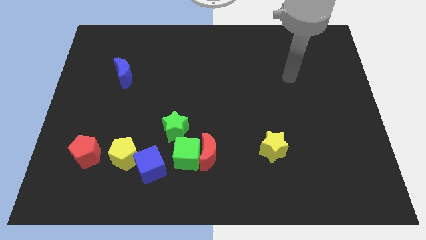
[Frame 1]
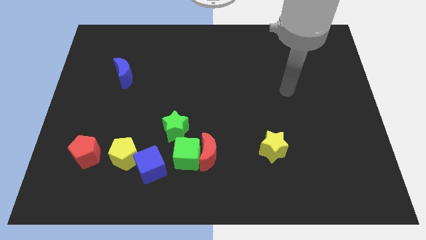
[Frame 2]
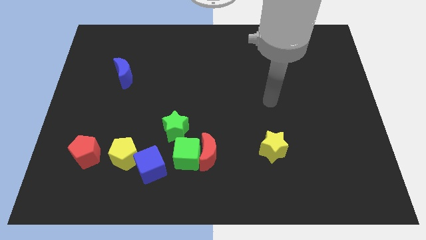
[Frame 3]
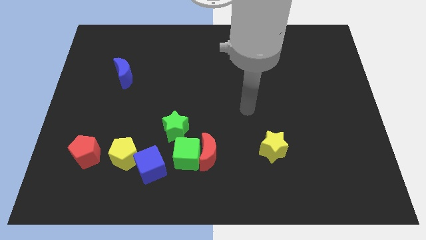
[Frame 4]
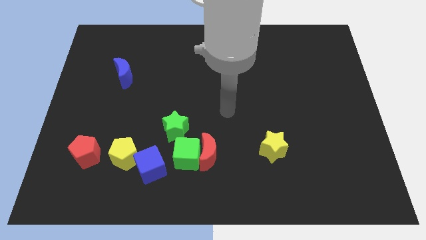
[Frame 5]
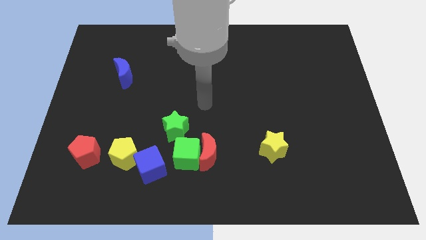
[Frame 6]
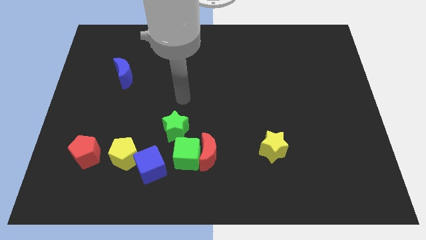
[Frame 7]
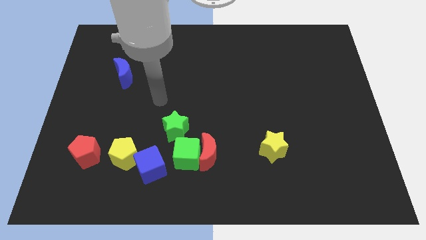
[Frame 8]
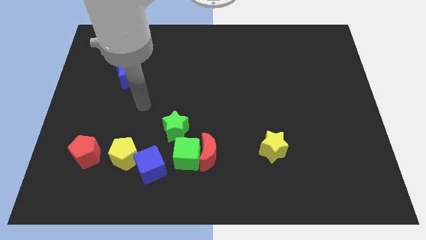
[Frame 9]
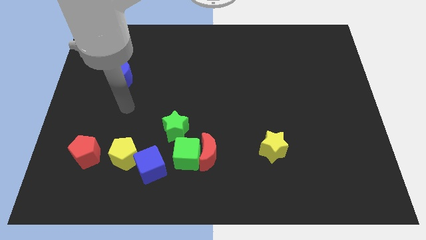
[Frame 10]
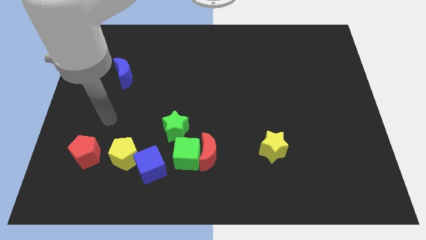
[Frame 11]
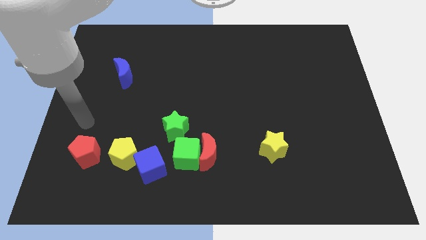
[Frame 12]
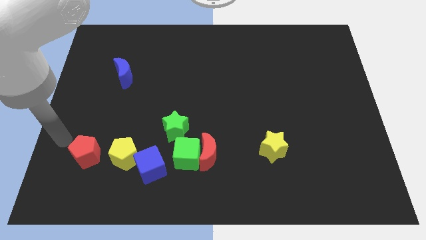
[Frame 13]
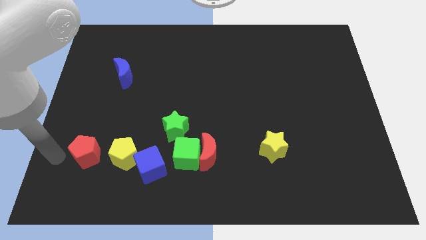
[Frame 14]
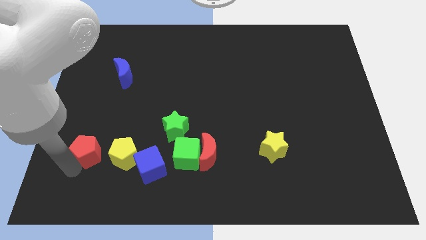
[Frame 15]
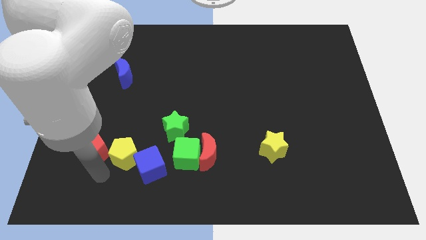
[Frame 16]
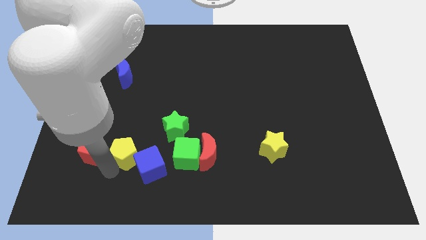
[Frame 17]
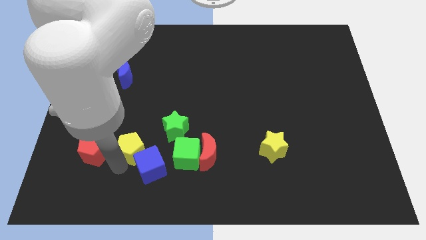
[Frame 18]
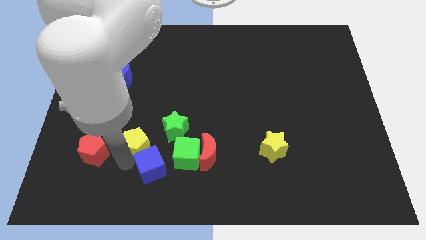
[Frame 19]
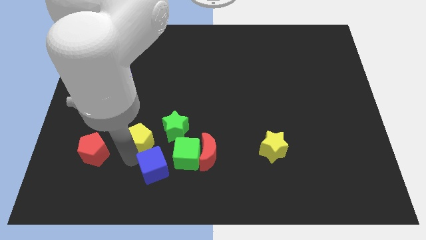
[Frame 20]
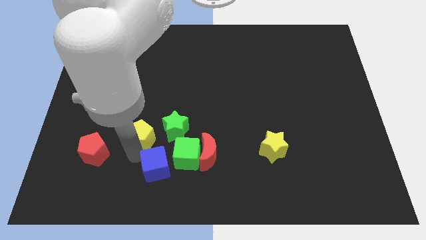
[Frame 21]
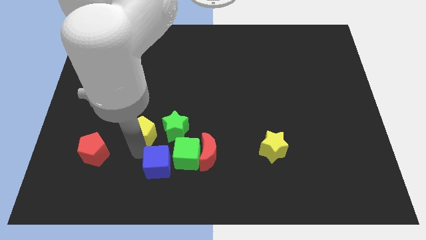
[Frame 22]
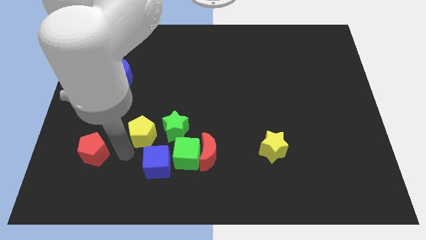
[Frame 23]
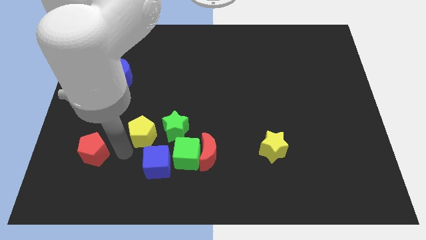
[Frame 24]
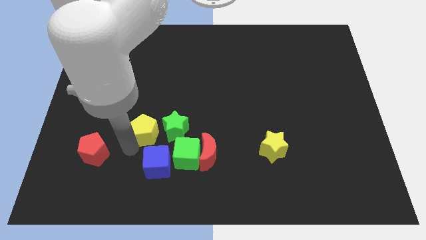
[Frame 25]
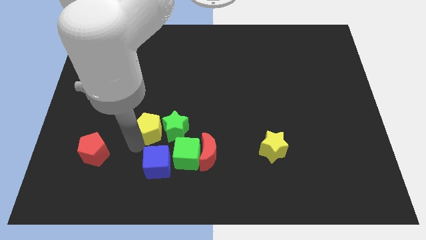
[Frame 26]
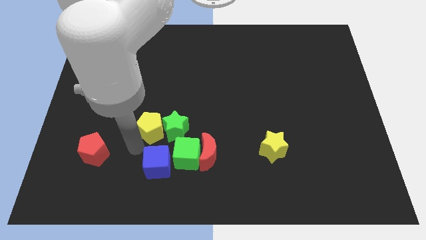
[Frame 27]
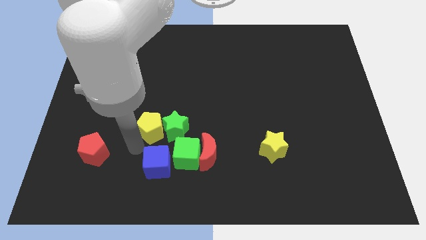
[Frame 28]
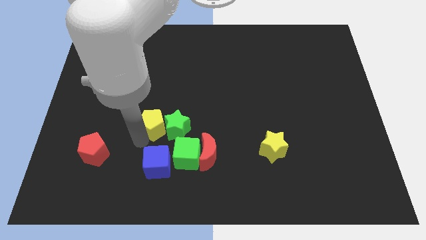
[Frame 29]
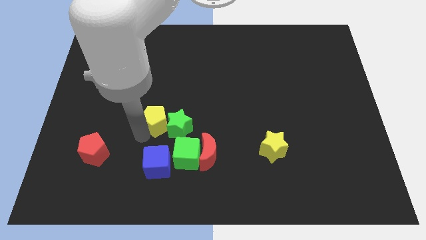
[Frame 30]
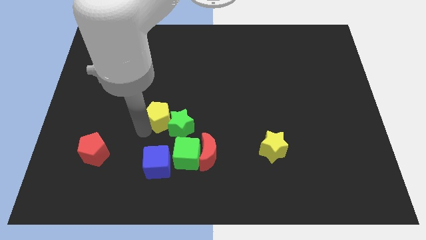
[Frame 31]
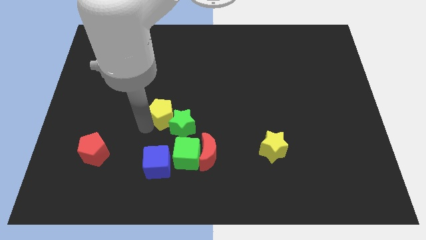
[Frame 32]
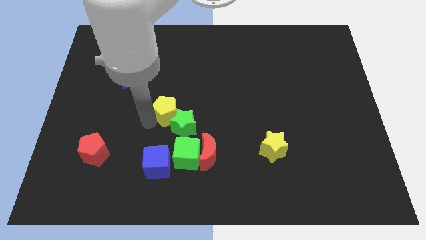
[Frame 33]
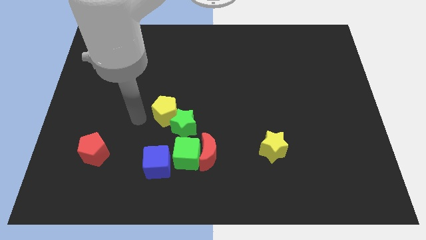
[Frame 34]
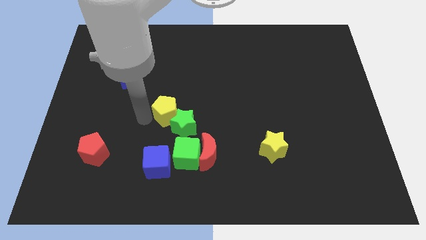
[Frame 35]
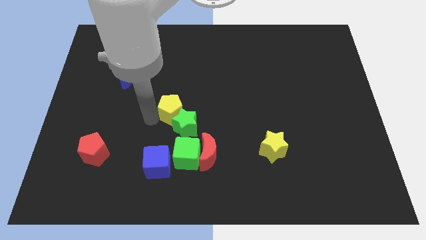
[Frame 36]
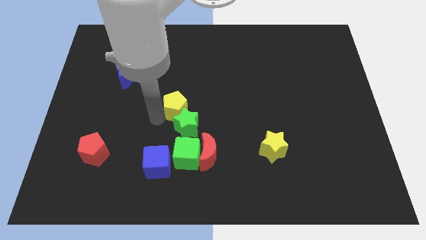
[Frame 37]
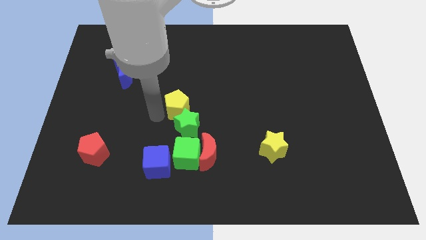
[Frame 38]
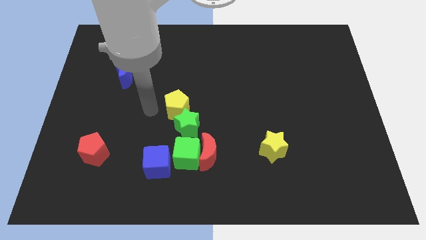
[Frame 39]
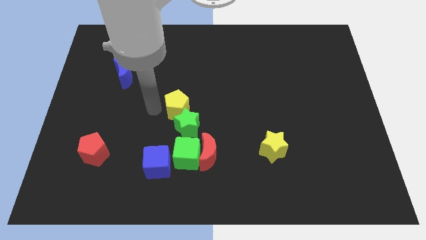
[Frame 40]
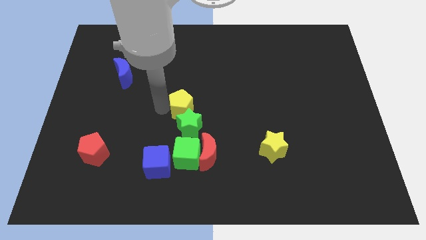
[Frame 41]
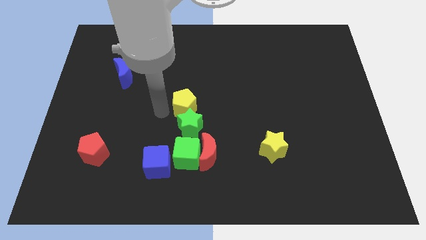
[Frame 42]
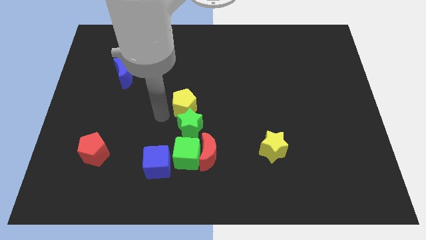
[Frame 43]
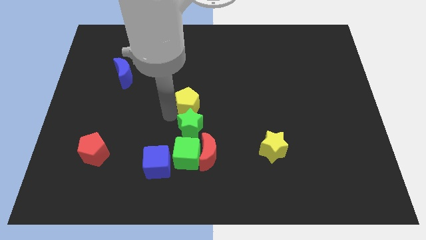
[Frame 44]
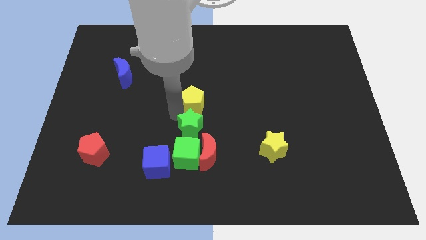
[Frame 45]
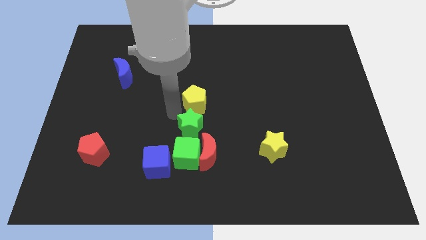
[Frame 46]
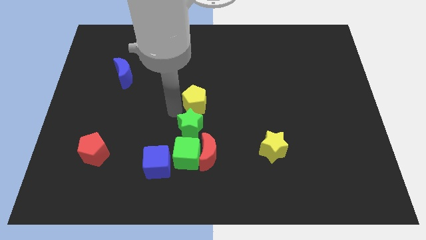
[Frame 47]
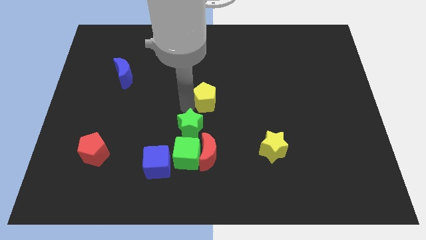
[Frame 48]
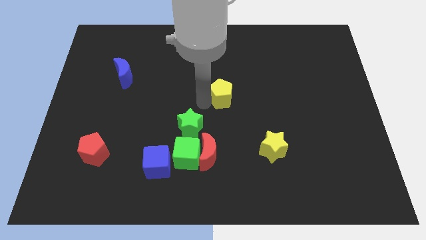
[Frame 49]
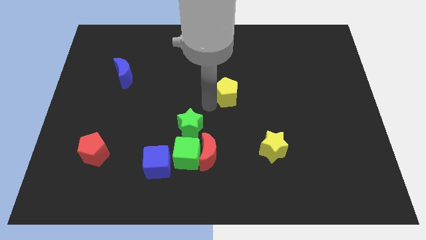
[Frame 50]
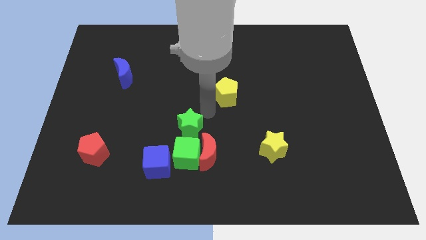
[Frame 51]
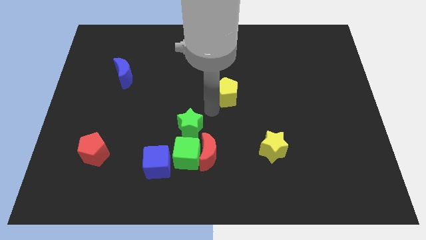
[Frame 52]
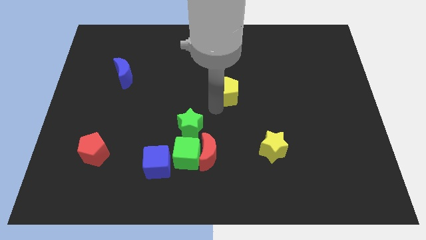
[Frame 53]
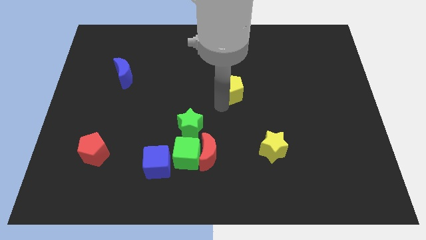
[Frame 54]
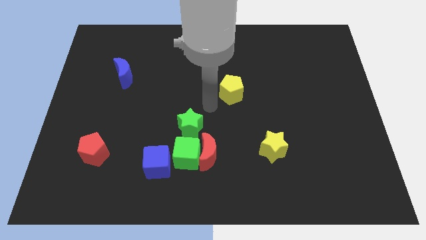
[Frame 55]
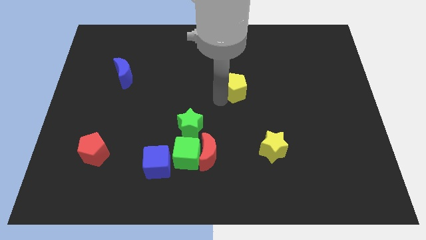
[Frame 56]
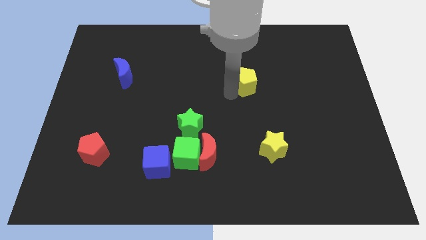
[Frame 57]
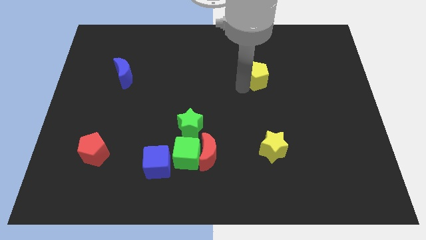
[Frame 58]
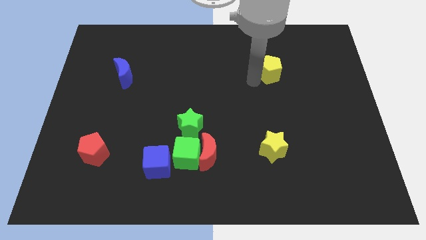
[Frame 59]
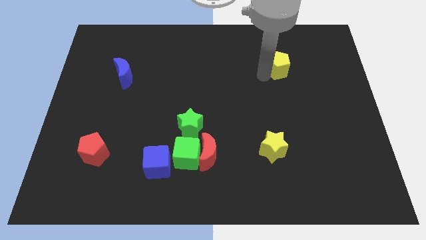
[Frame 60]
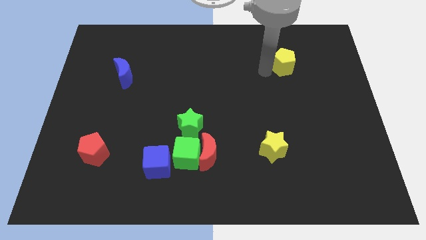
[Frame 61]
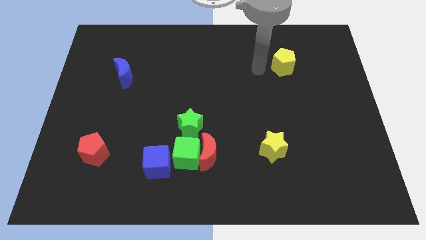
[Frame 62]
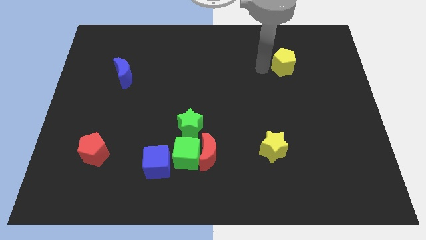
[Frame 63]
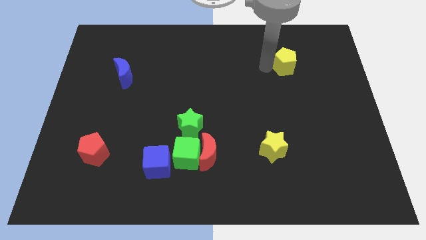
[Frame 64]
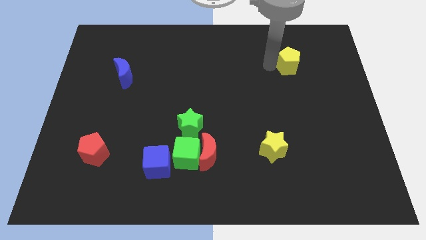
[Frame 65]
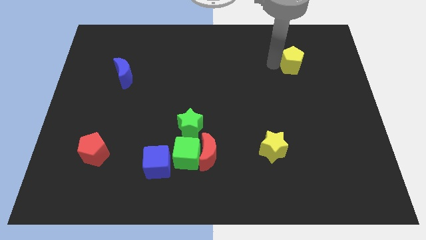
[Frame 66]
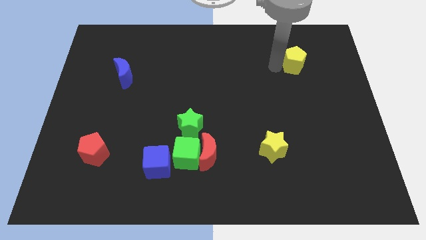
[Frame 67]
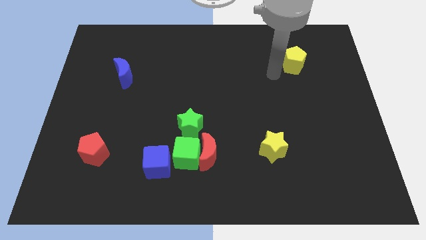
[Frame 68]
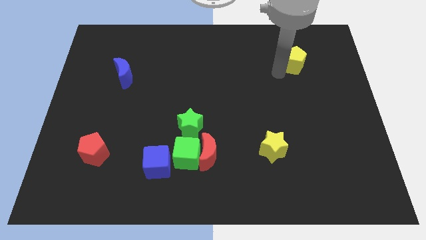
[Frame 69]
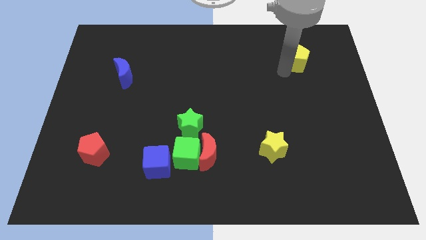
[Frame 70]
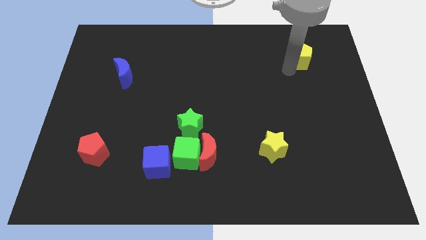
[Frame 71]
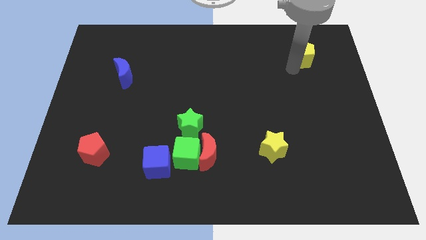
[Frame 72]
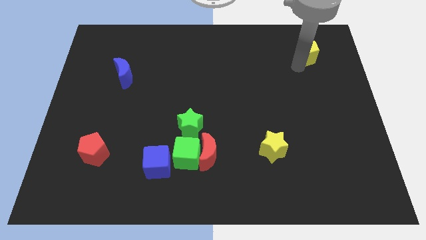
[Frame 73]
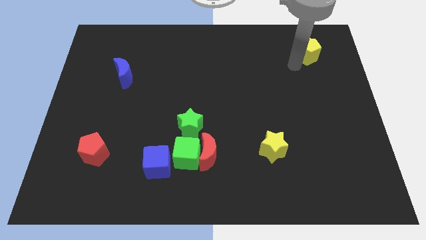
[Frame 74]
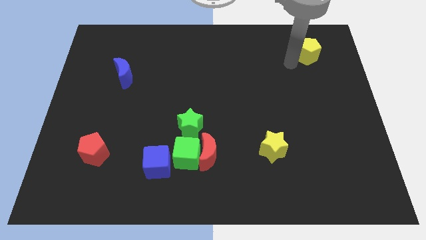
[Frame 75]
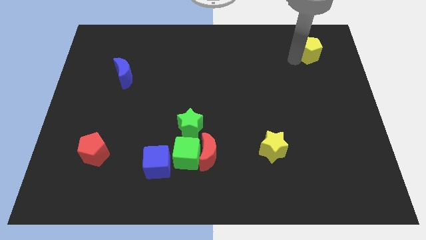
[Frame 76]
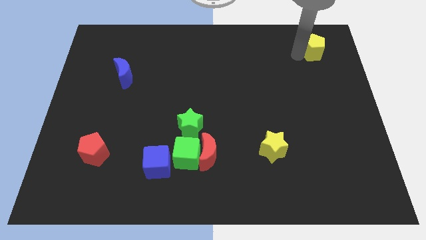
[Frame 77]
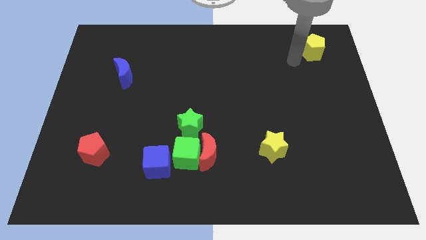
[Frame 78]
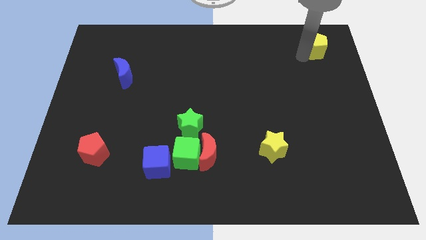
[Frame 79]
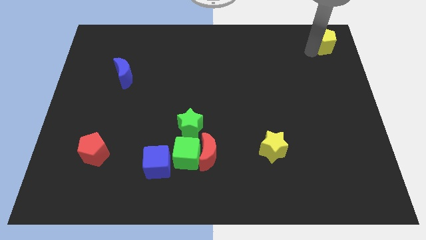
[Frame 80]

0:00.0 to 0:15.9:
slide the yellow pentagon to the top right corner
